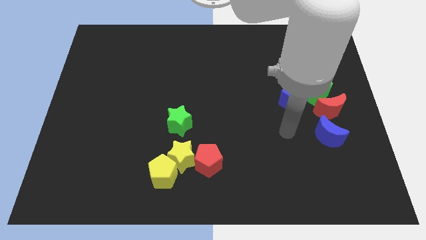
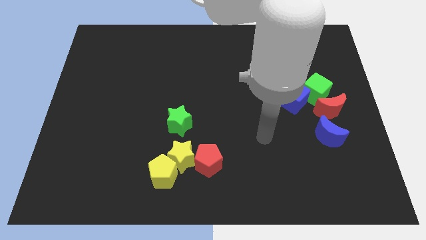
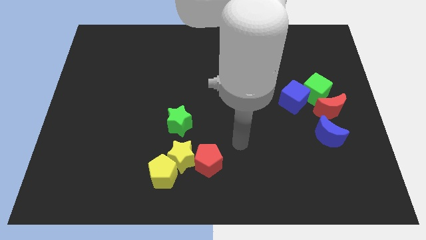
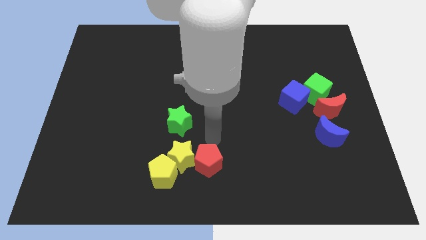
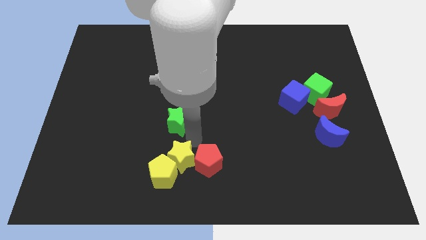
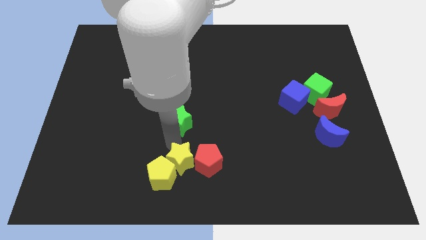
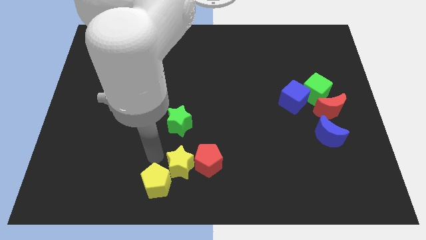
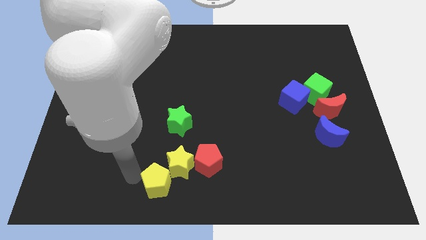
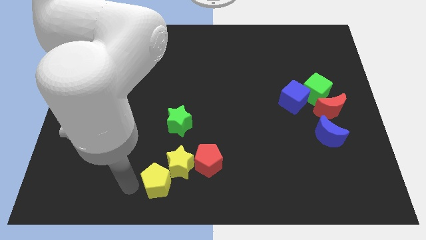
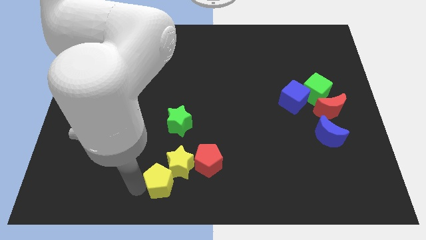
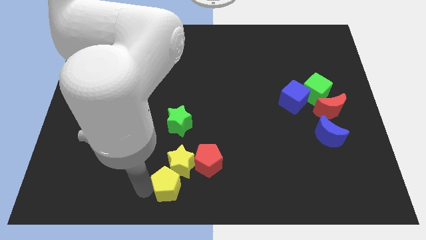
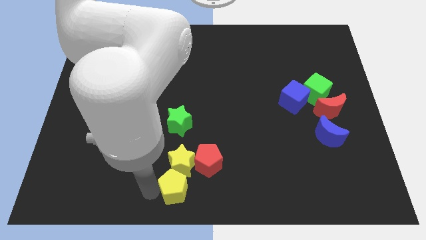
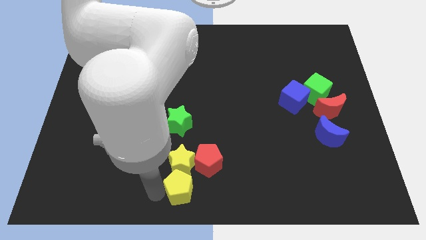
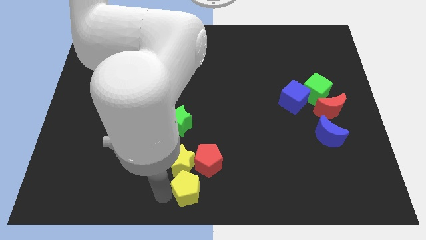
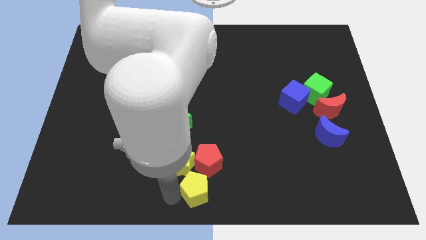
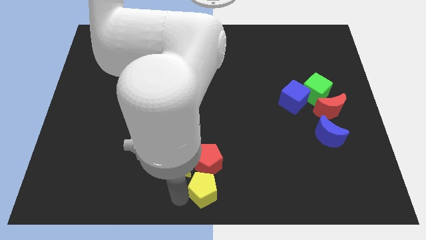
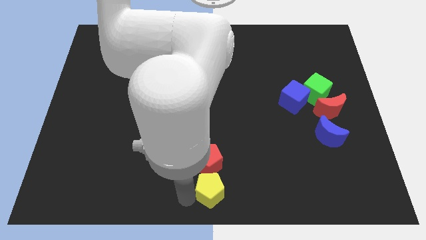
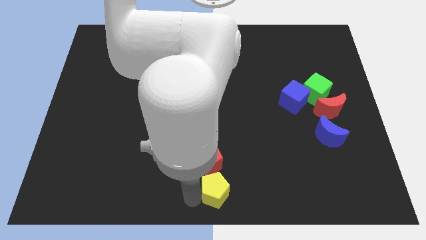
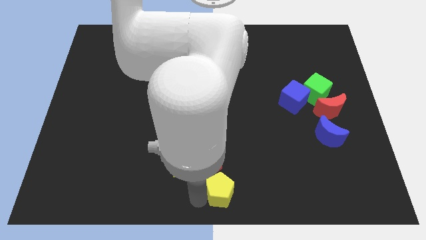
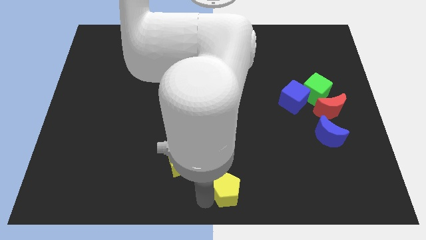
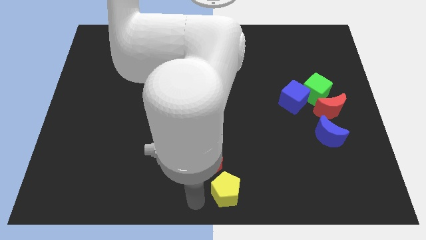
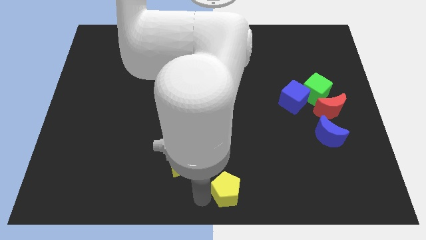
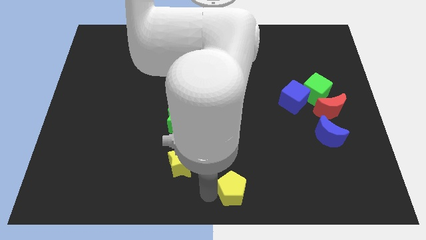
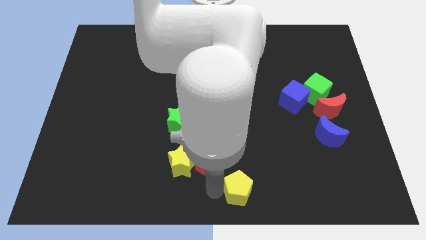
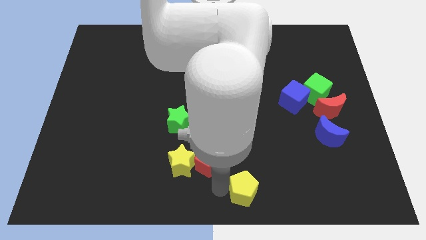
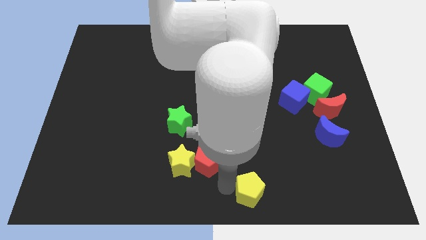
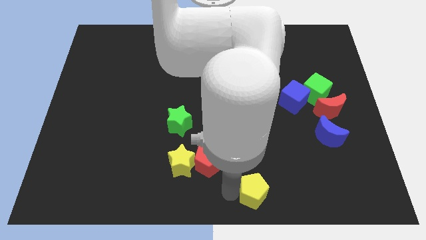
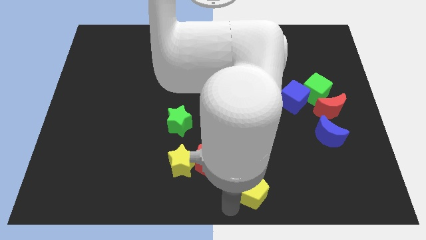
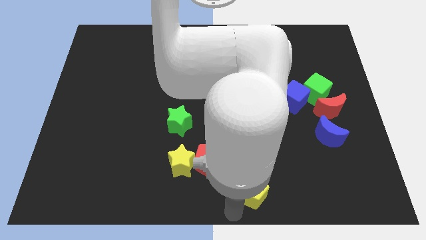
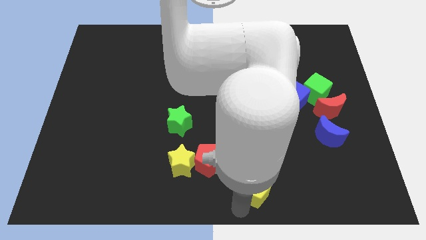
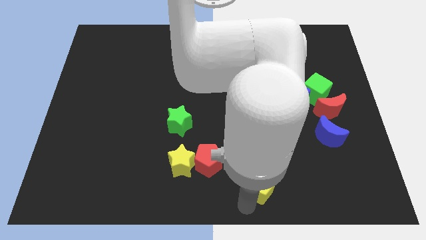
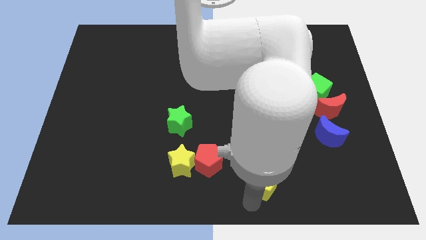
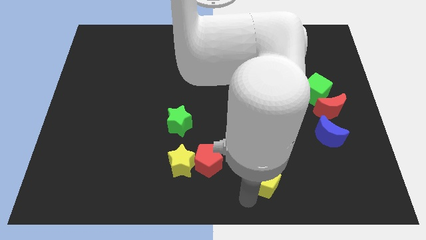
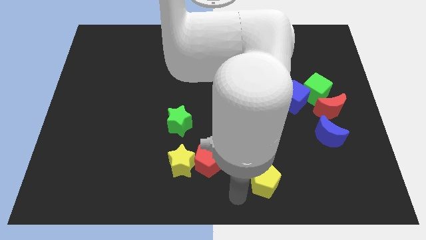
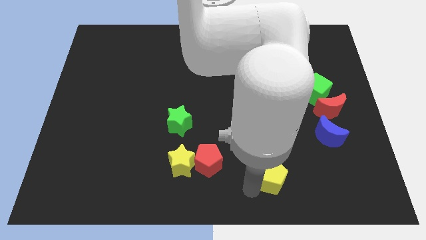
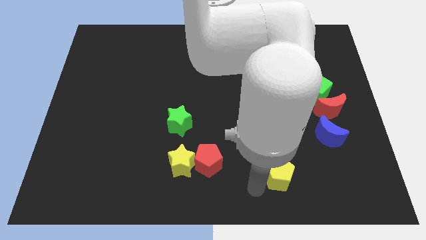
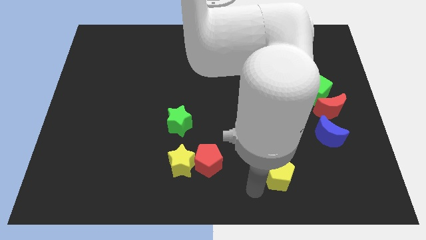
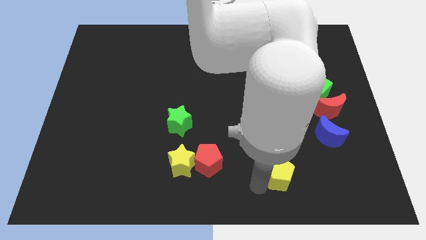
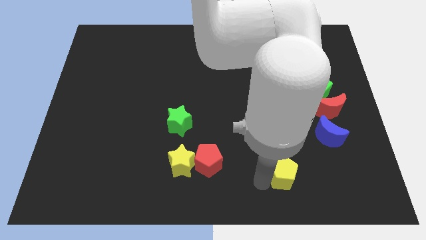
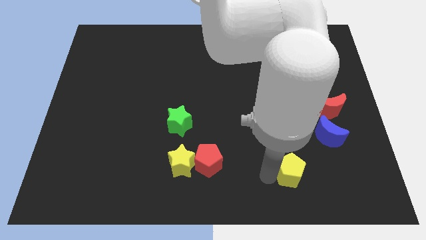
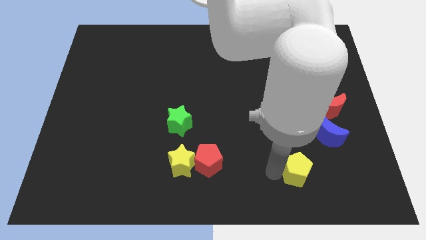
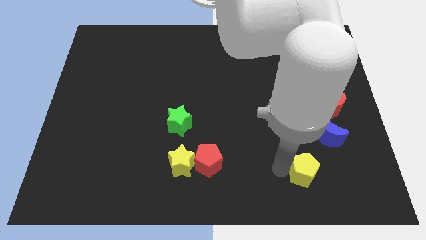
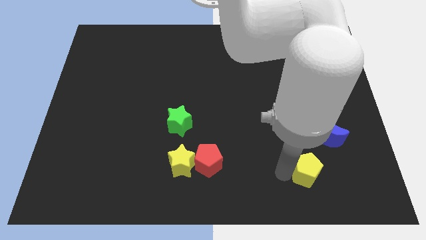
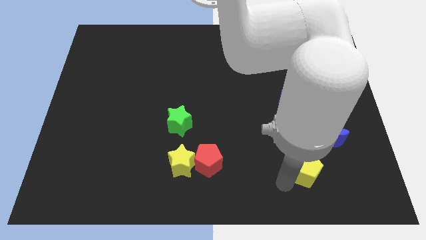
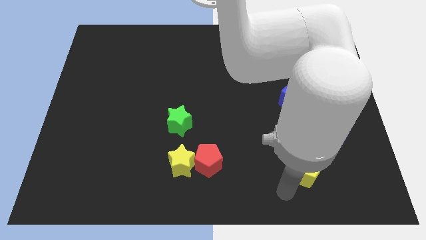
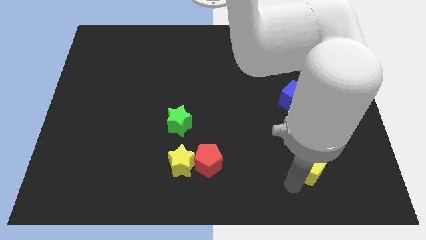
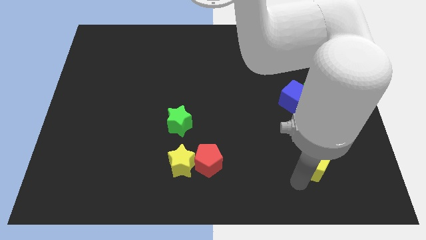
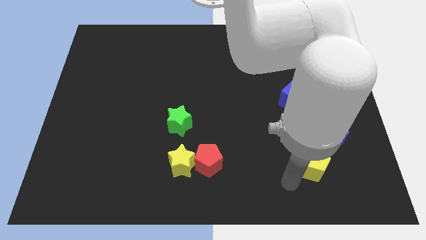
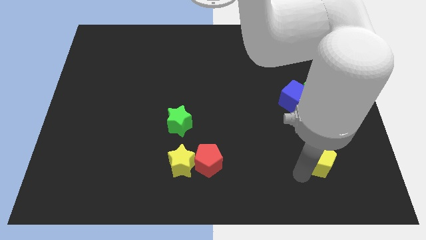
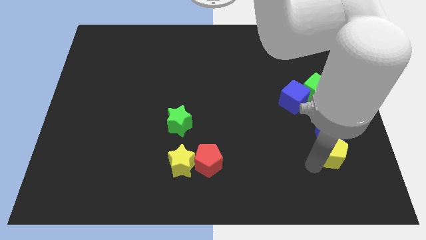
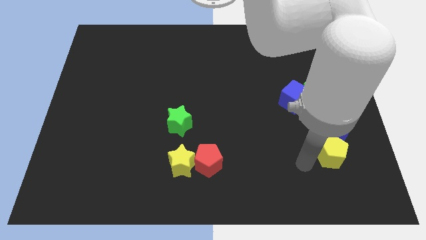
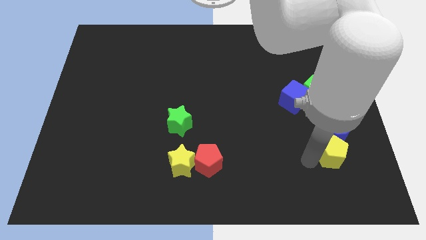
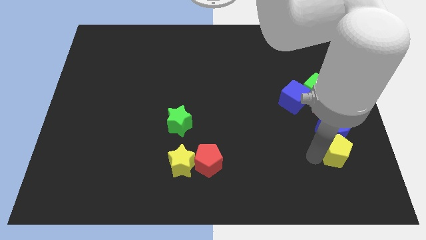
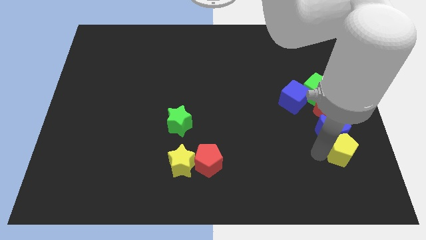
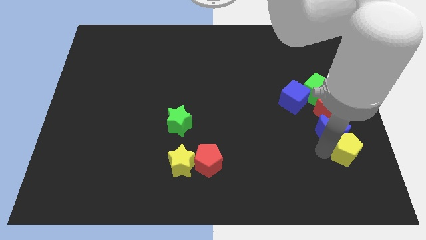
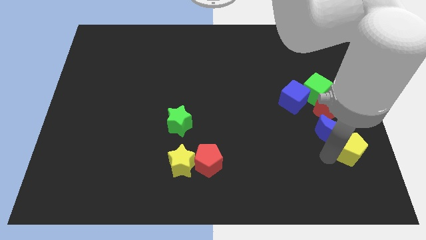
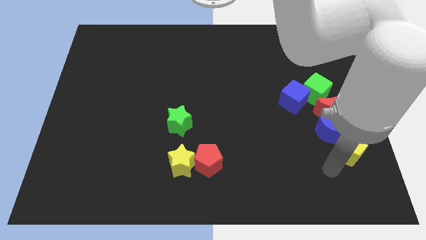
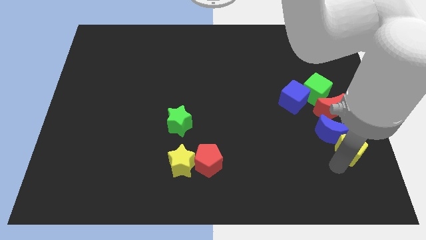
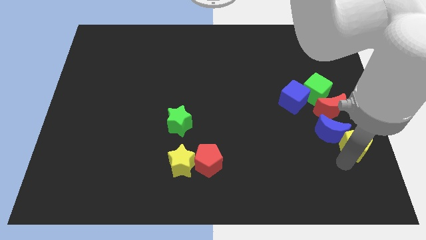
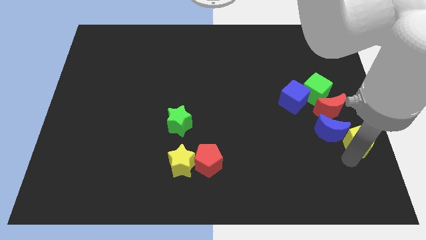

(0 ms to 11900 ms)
push the yellow pentagon to the right side of the board

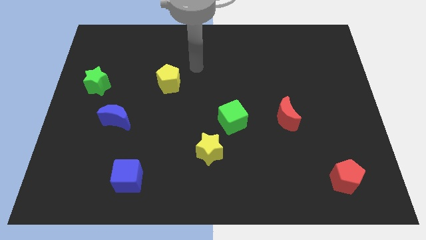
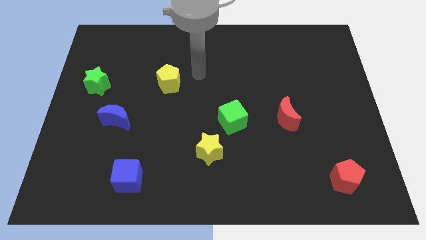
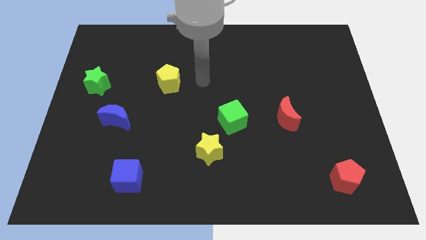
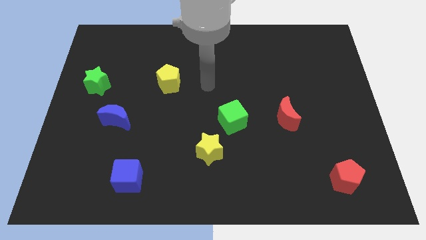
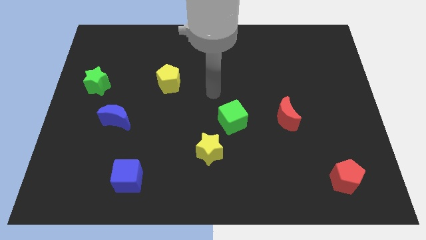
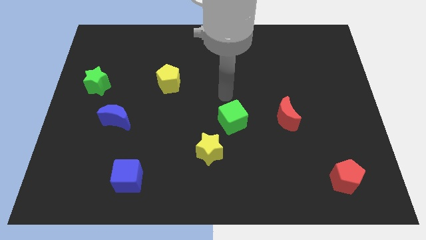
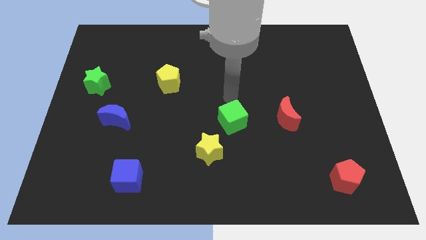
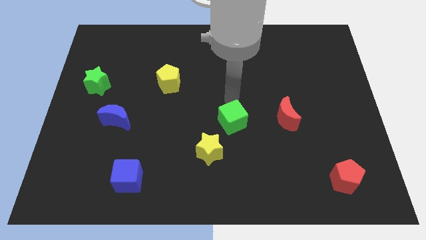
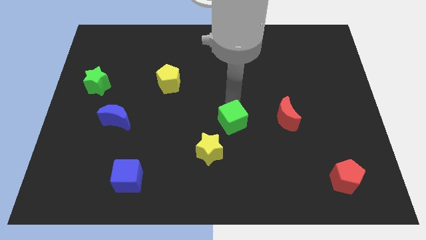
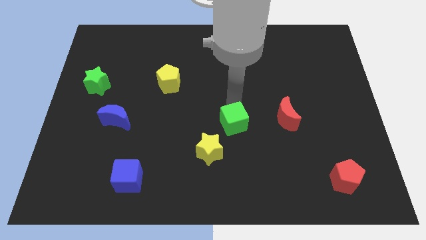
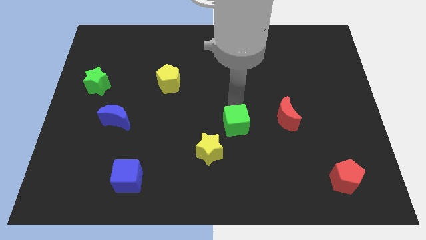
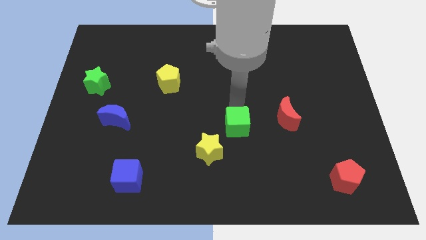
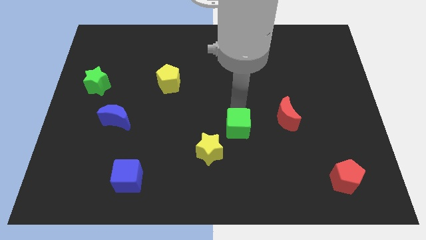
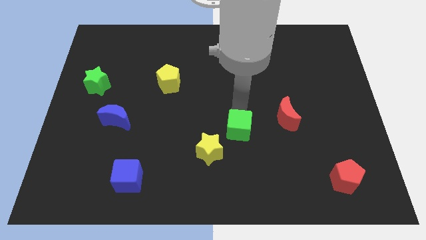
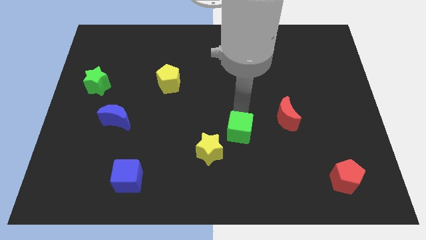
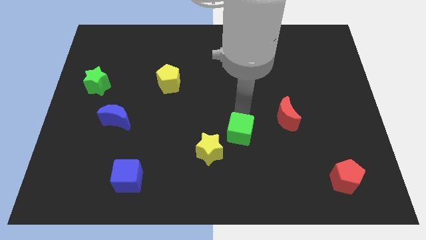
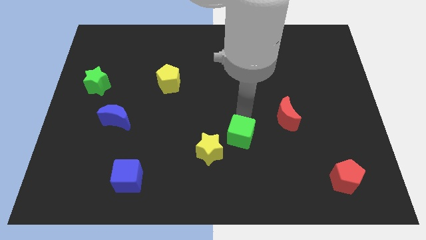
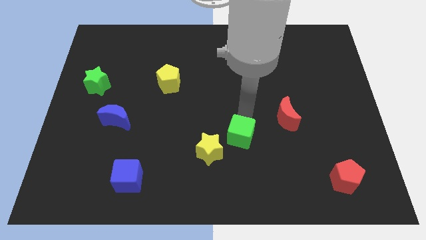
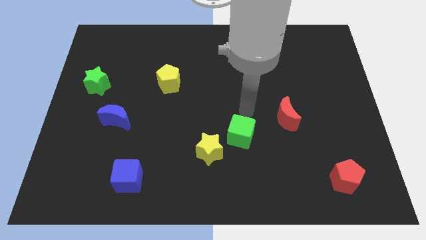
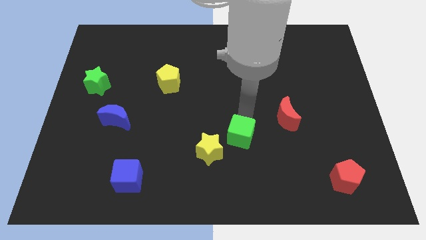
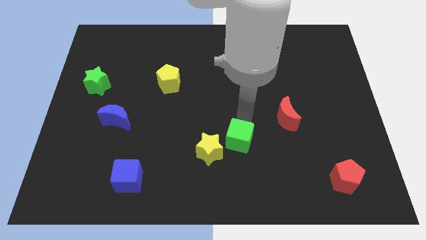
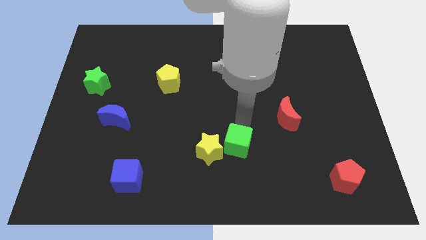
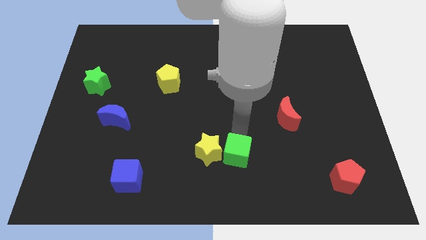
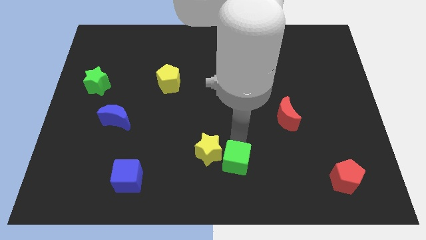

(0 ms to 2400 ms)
put the green cube to the bottom
